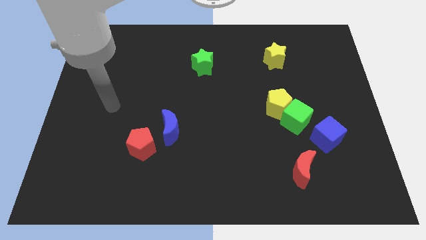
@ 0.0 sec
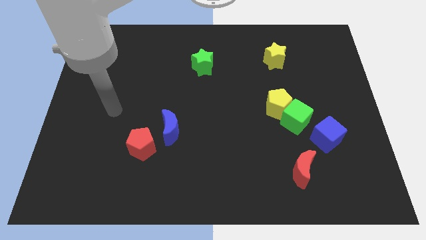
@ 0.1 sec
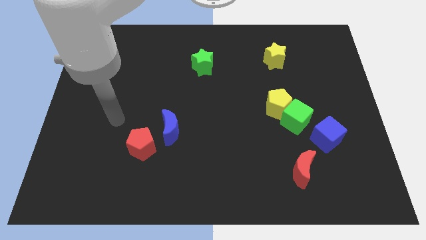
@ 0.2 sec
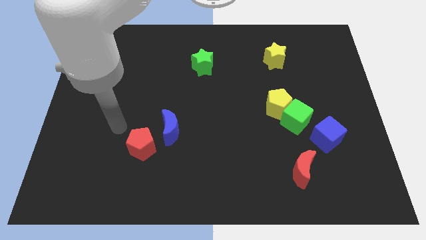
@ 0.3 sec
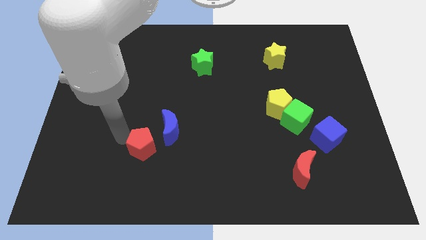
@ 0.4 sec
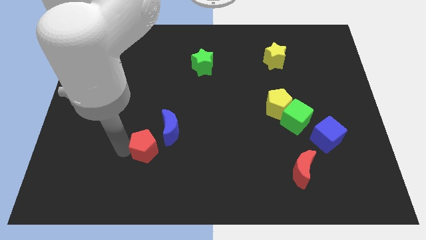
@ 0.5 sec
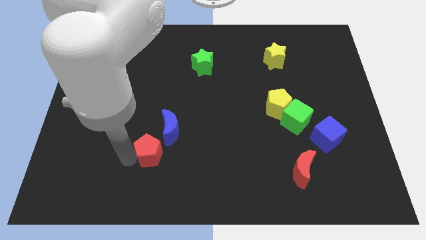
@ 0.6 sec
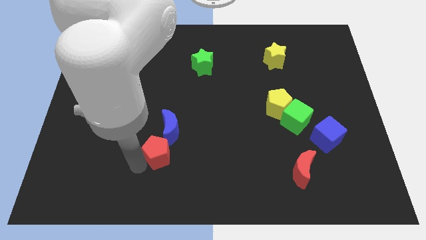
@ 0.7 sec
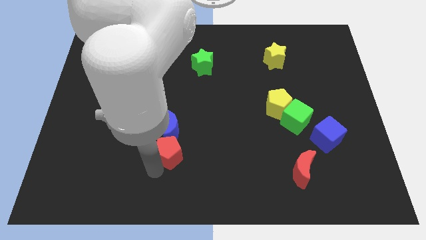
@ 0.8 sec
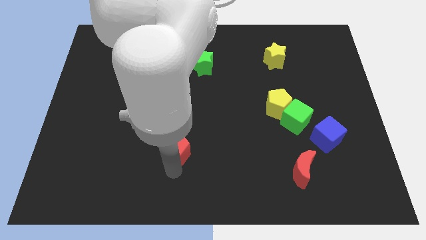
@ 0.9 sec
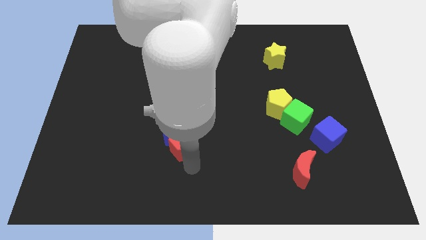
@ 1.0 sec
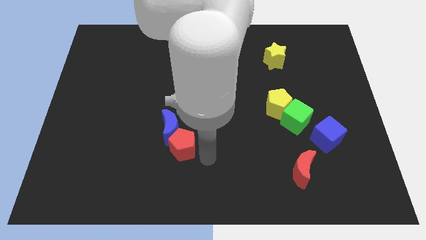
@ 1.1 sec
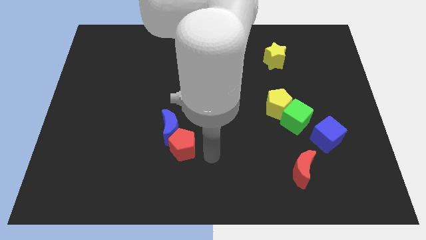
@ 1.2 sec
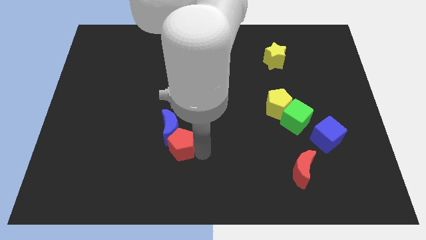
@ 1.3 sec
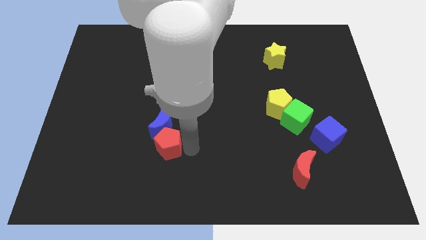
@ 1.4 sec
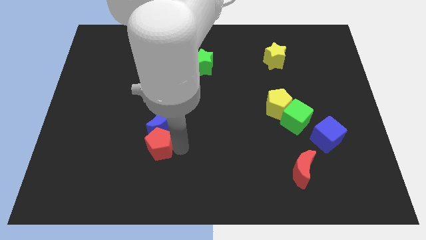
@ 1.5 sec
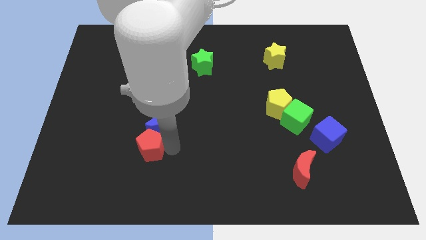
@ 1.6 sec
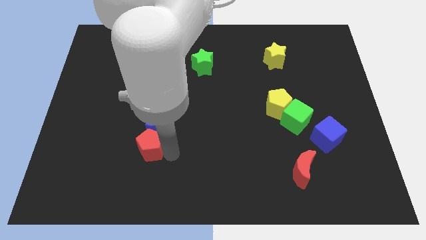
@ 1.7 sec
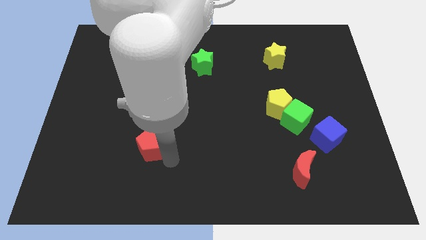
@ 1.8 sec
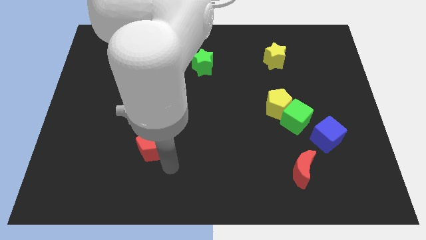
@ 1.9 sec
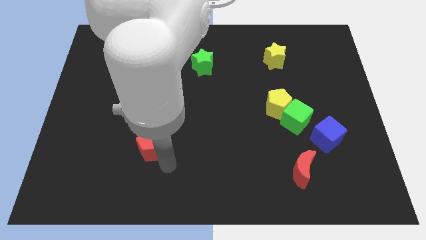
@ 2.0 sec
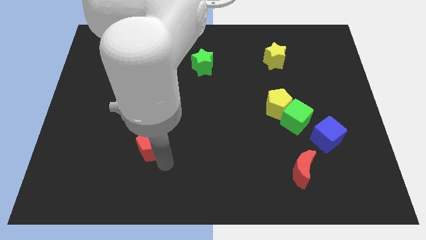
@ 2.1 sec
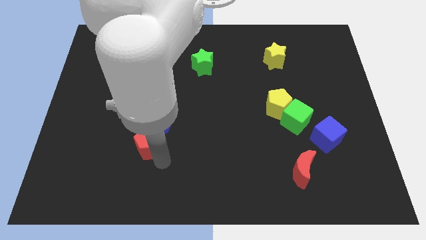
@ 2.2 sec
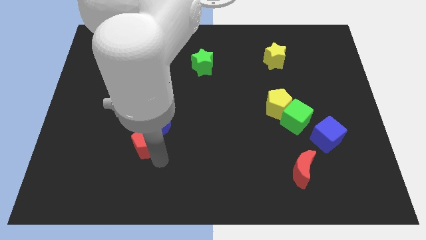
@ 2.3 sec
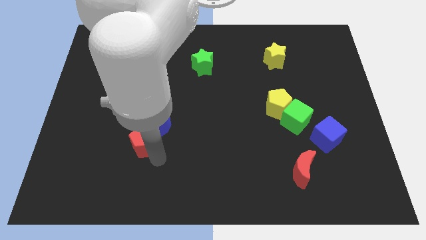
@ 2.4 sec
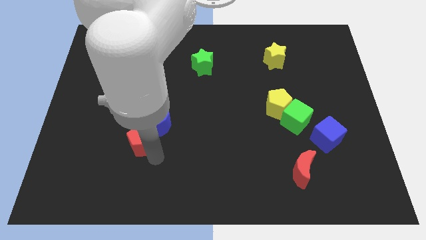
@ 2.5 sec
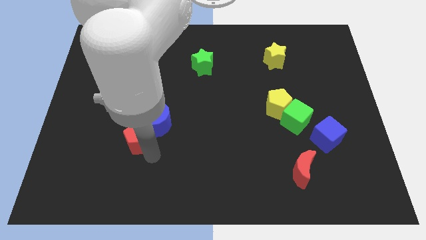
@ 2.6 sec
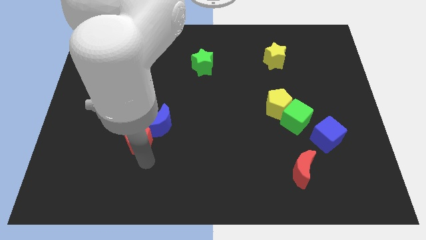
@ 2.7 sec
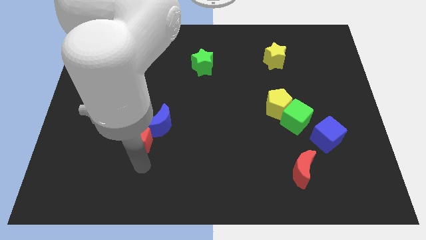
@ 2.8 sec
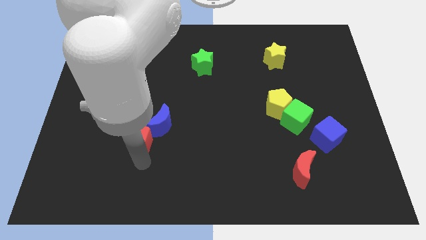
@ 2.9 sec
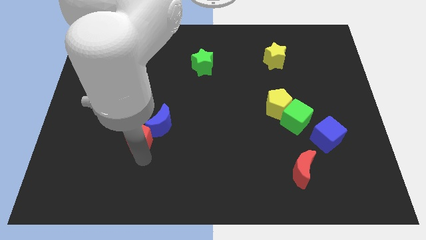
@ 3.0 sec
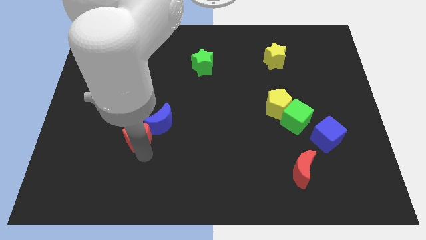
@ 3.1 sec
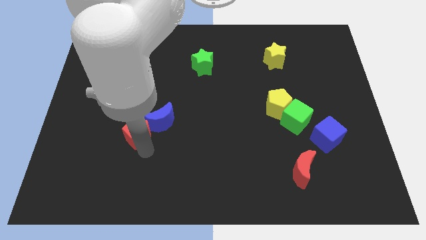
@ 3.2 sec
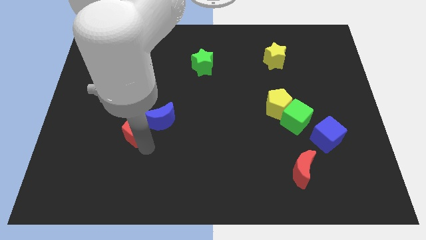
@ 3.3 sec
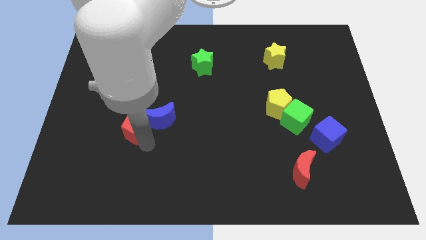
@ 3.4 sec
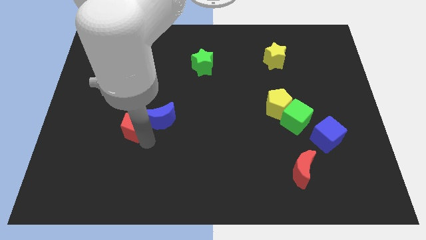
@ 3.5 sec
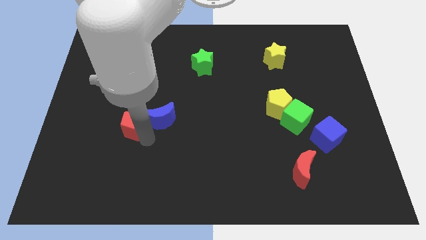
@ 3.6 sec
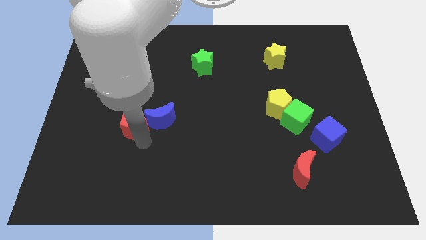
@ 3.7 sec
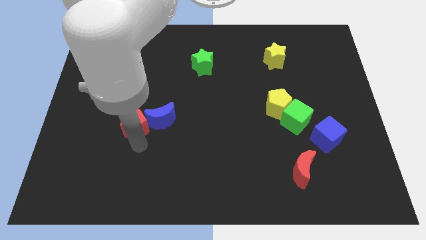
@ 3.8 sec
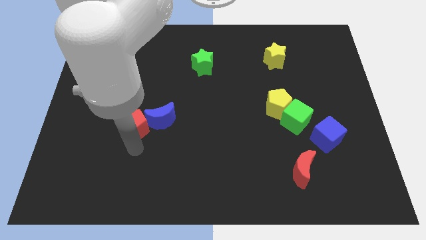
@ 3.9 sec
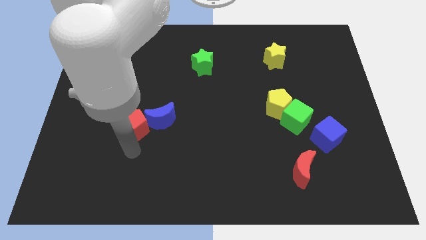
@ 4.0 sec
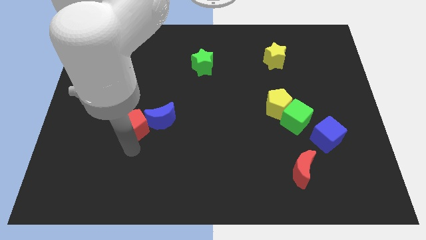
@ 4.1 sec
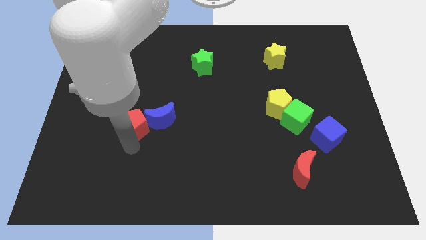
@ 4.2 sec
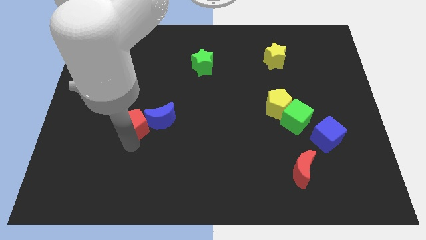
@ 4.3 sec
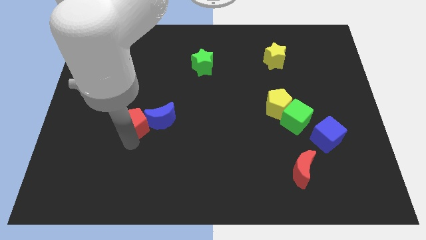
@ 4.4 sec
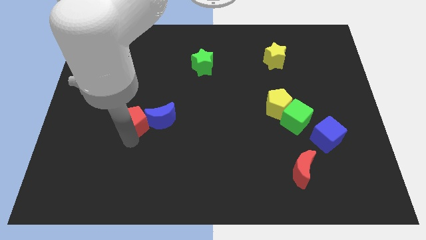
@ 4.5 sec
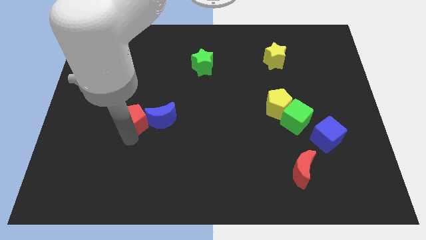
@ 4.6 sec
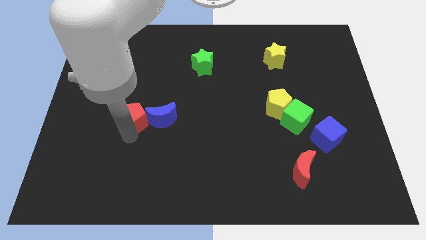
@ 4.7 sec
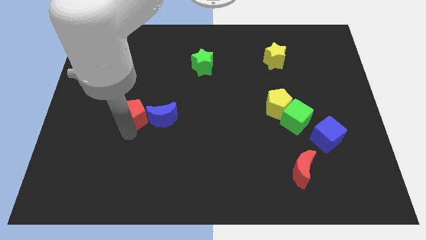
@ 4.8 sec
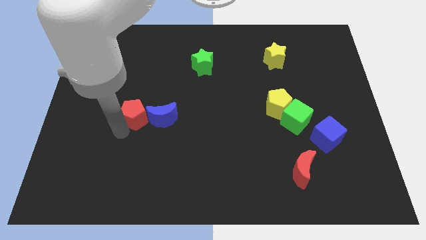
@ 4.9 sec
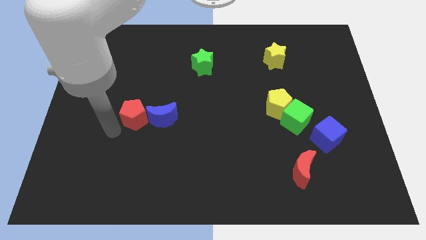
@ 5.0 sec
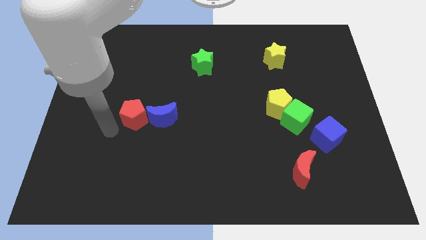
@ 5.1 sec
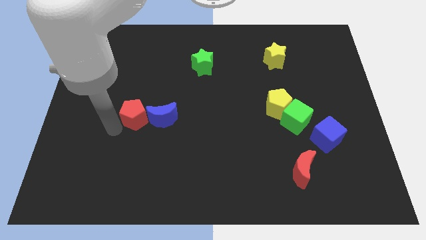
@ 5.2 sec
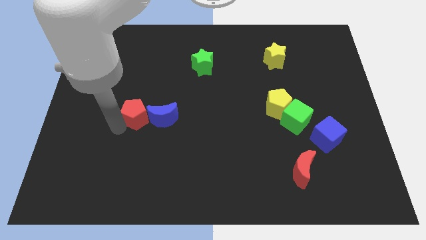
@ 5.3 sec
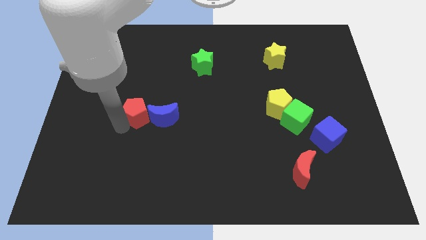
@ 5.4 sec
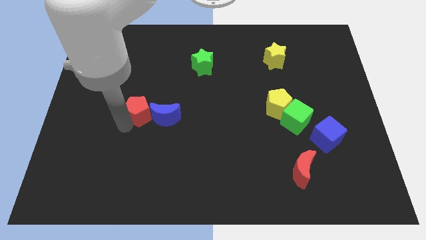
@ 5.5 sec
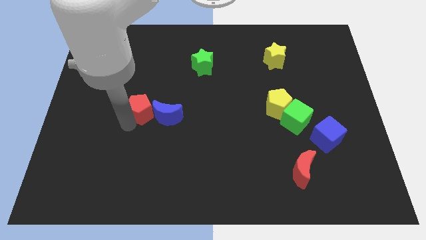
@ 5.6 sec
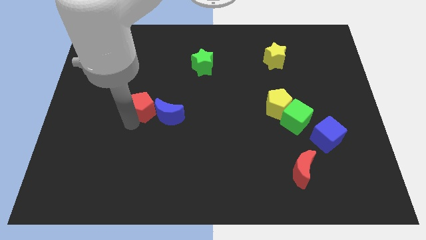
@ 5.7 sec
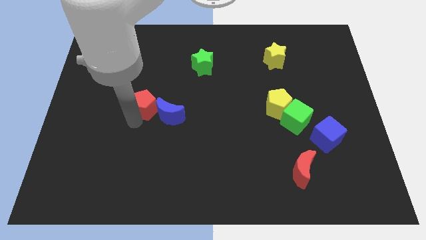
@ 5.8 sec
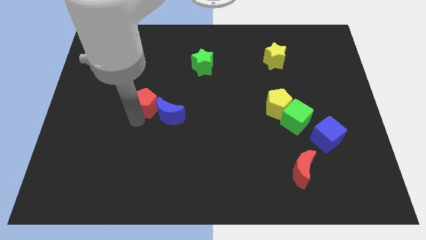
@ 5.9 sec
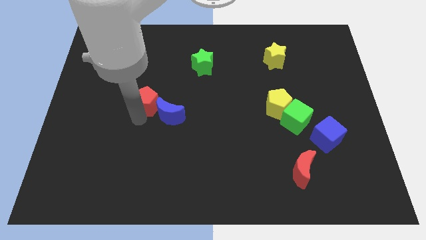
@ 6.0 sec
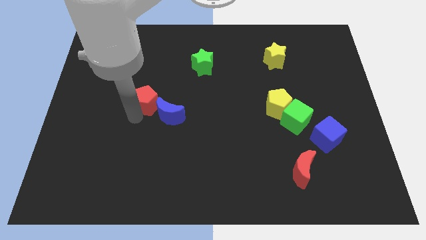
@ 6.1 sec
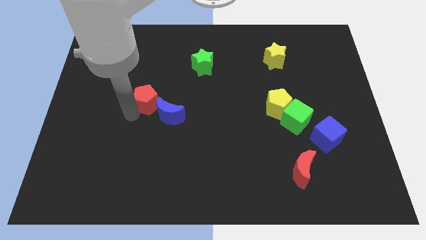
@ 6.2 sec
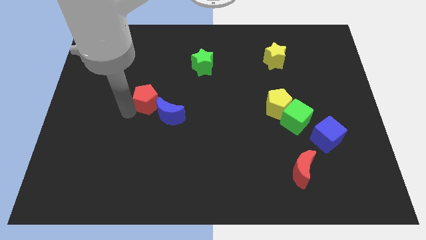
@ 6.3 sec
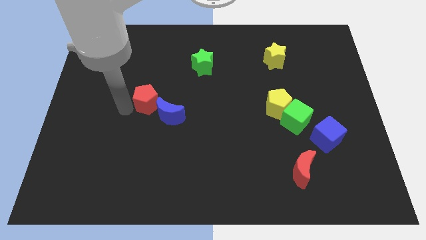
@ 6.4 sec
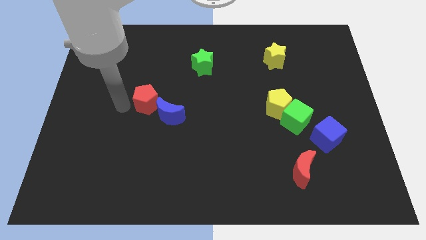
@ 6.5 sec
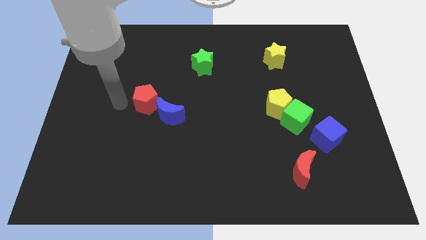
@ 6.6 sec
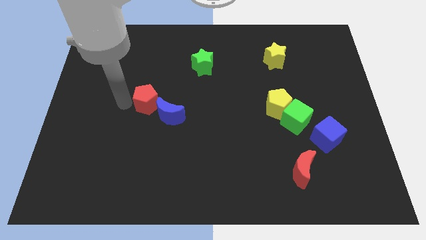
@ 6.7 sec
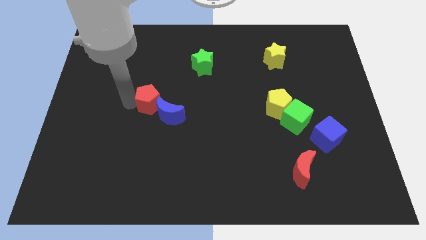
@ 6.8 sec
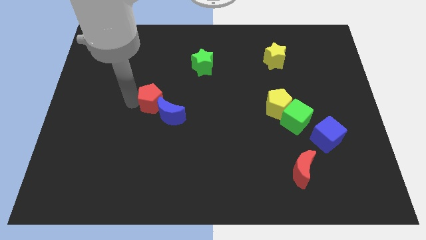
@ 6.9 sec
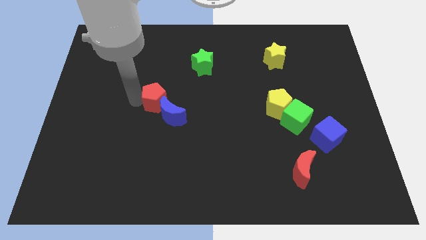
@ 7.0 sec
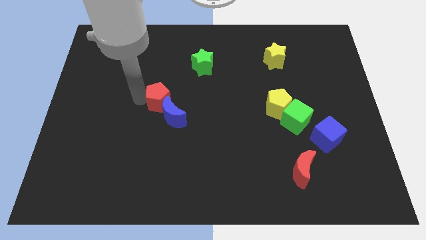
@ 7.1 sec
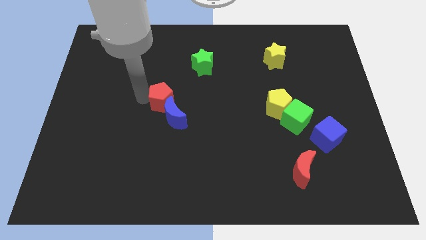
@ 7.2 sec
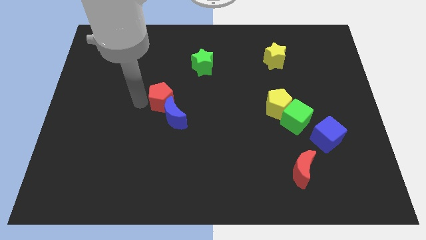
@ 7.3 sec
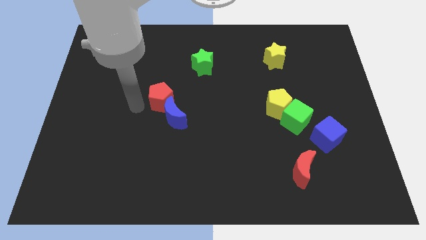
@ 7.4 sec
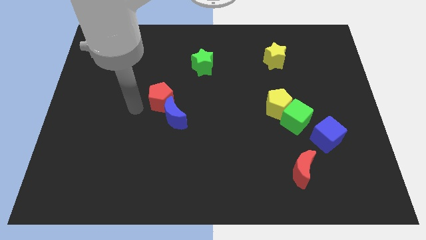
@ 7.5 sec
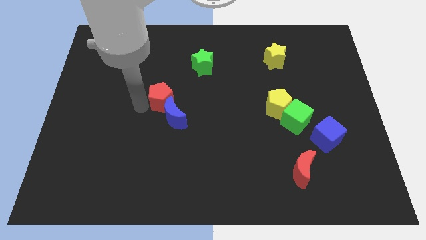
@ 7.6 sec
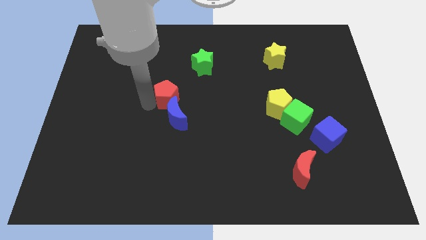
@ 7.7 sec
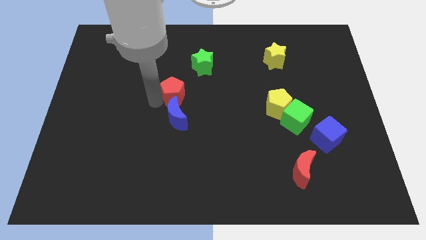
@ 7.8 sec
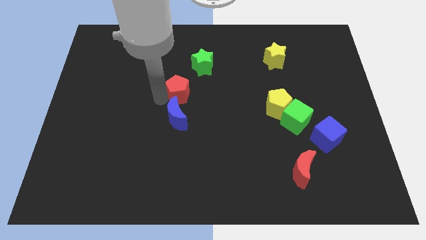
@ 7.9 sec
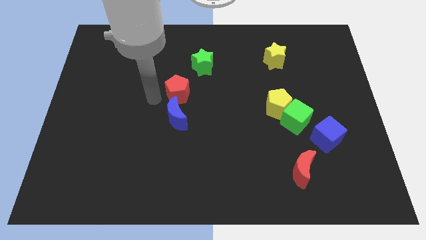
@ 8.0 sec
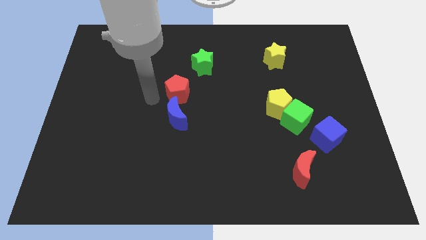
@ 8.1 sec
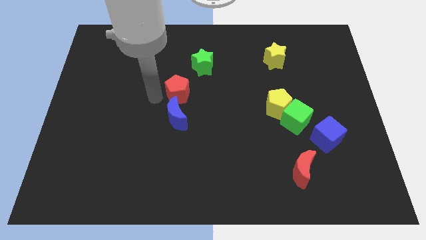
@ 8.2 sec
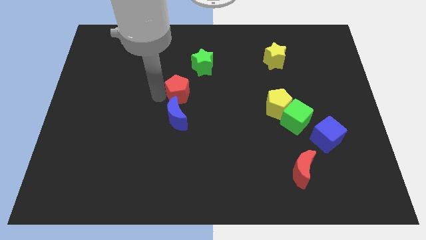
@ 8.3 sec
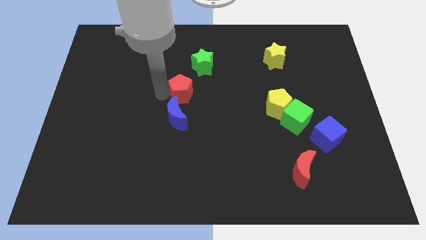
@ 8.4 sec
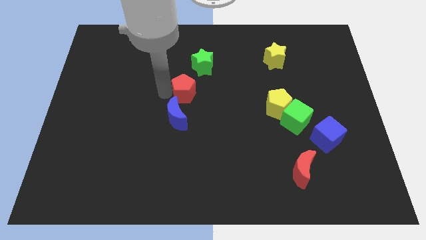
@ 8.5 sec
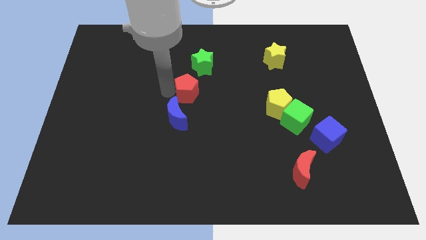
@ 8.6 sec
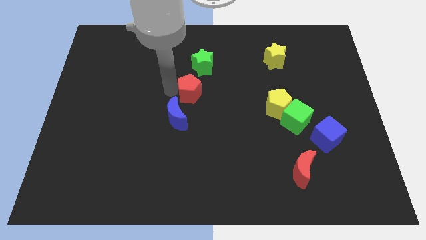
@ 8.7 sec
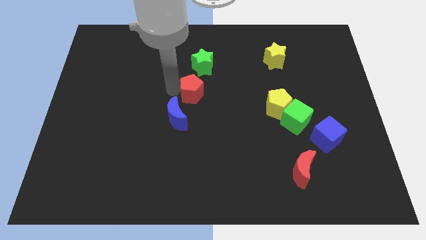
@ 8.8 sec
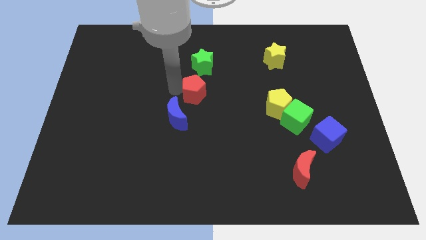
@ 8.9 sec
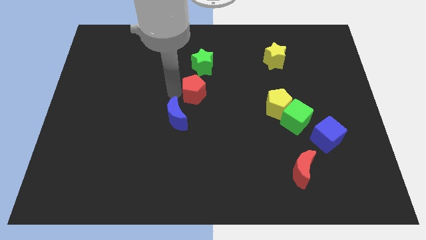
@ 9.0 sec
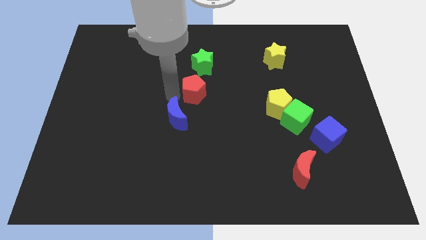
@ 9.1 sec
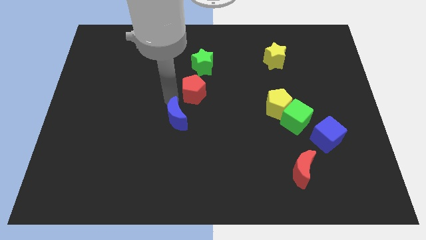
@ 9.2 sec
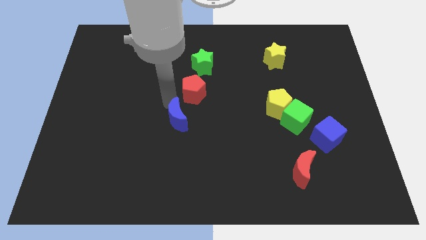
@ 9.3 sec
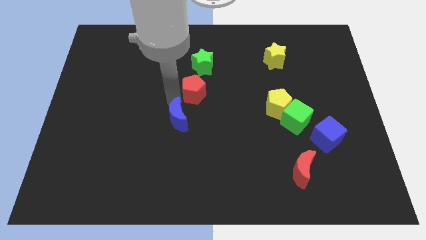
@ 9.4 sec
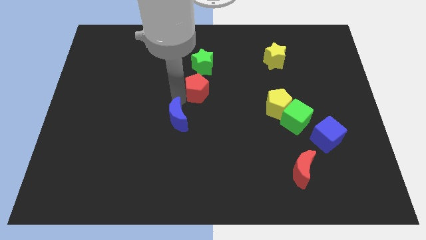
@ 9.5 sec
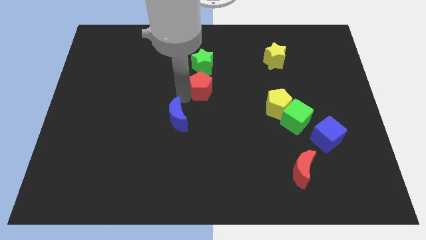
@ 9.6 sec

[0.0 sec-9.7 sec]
move the red pentagon up and to the right
